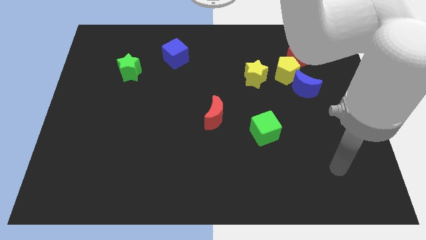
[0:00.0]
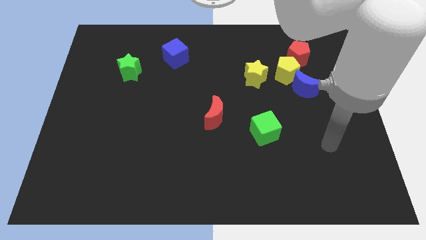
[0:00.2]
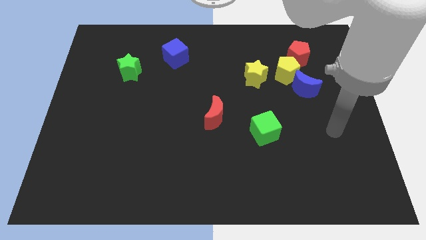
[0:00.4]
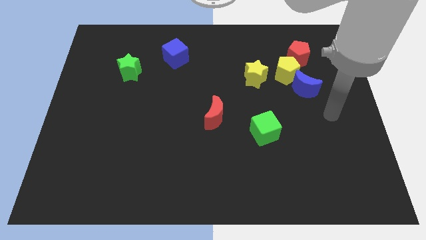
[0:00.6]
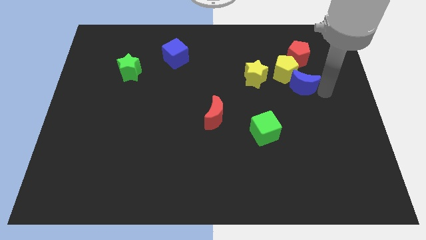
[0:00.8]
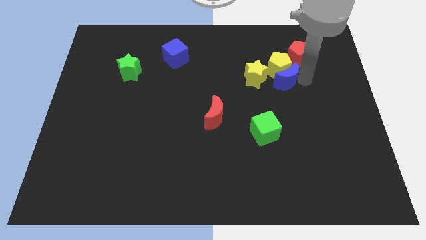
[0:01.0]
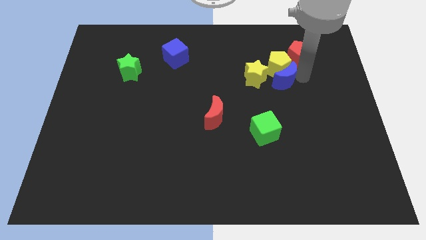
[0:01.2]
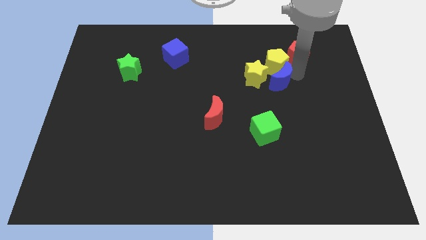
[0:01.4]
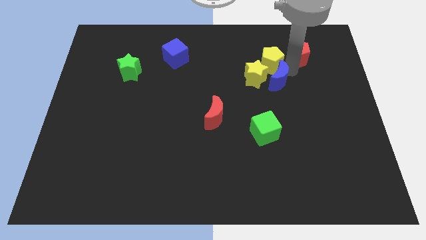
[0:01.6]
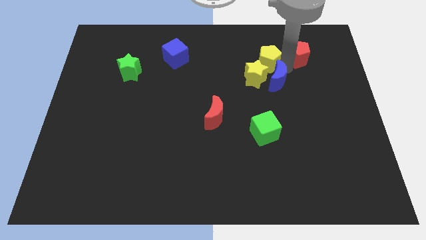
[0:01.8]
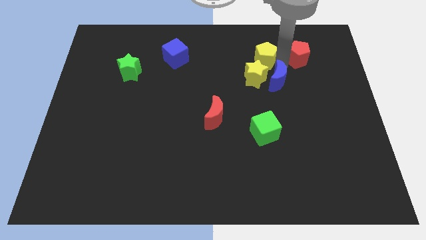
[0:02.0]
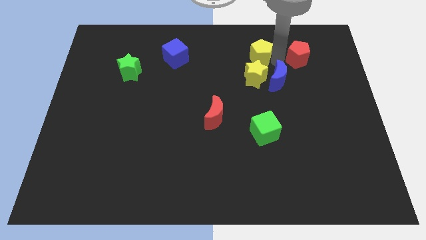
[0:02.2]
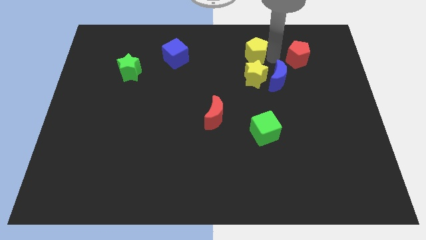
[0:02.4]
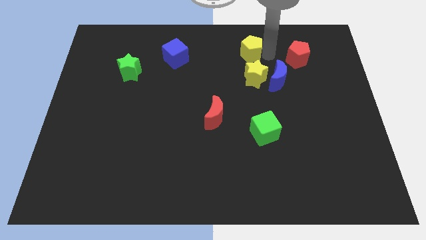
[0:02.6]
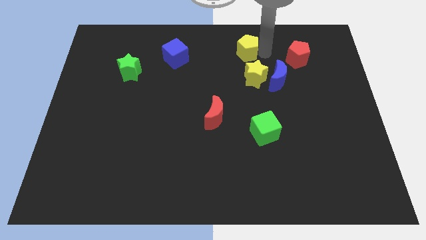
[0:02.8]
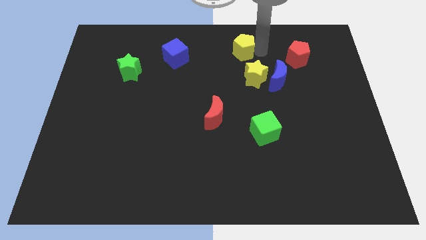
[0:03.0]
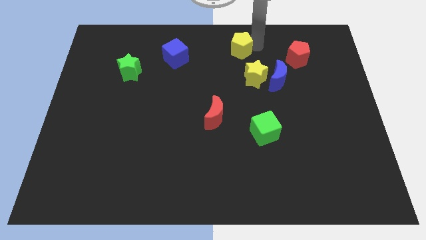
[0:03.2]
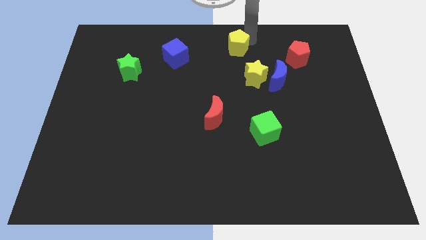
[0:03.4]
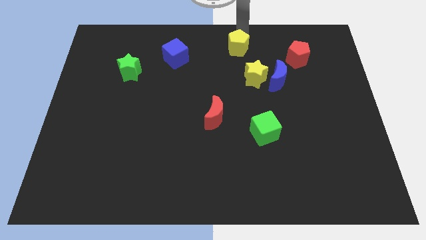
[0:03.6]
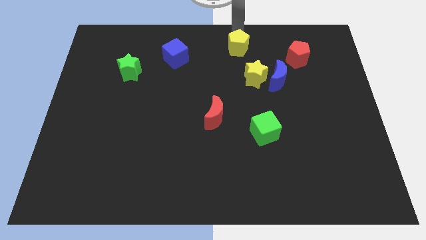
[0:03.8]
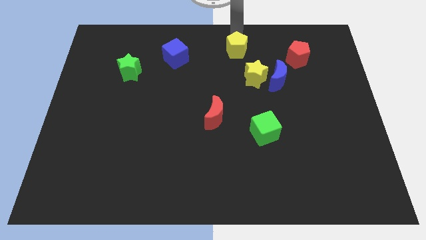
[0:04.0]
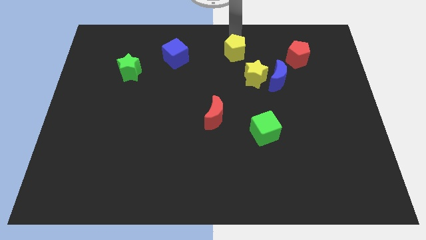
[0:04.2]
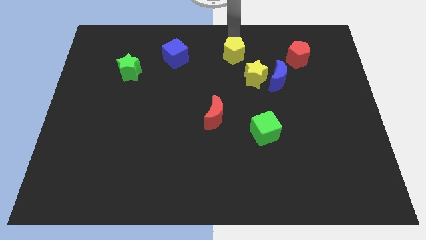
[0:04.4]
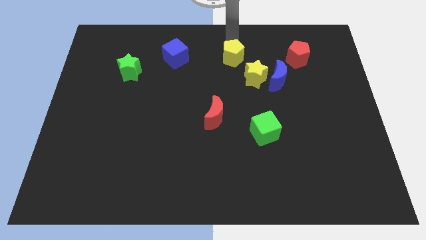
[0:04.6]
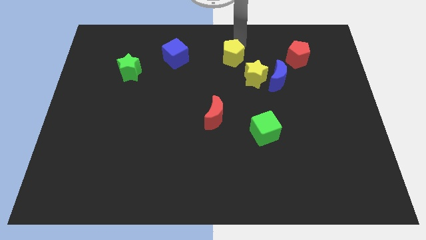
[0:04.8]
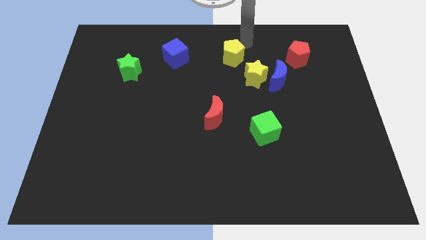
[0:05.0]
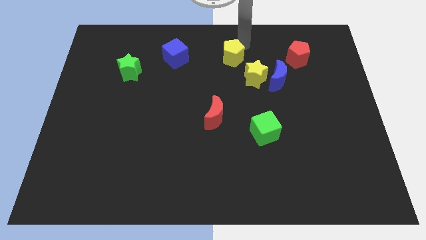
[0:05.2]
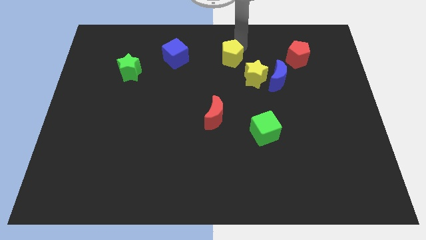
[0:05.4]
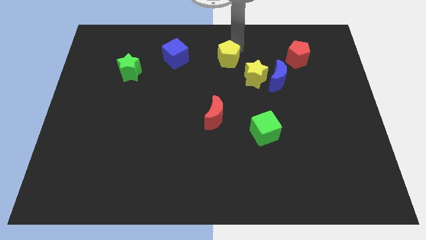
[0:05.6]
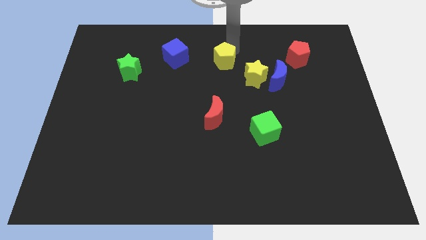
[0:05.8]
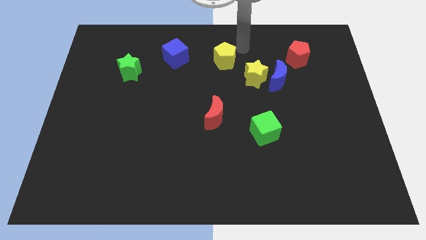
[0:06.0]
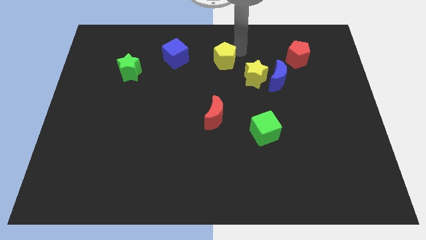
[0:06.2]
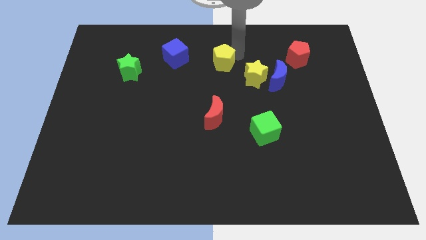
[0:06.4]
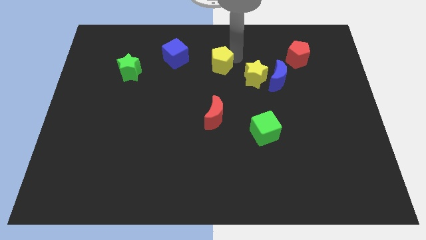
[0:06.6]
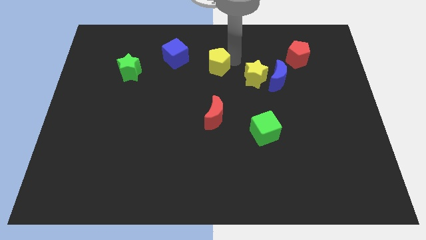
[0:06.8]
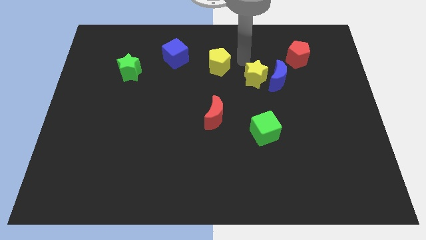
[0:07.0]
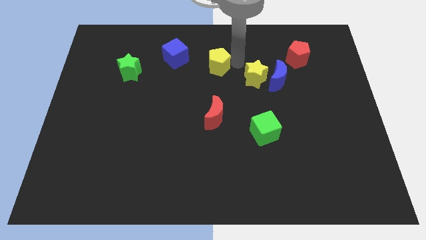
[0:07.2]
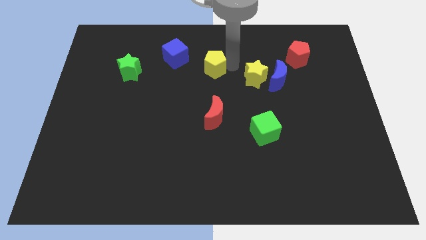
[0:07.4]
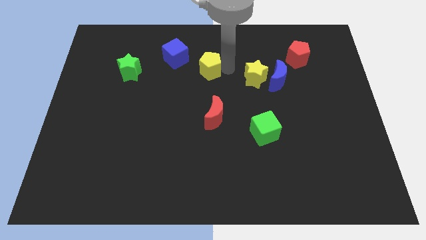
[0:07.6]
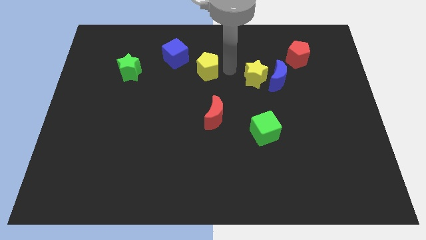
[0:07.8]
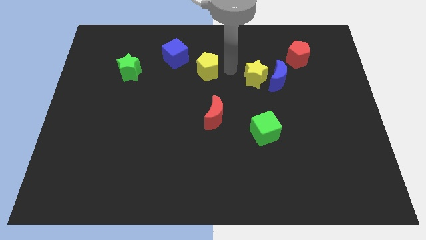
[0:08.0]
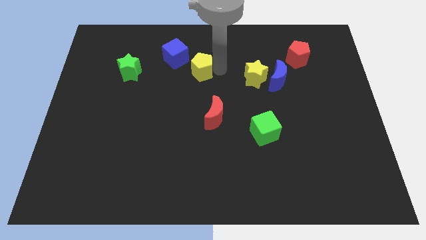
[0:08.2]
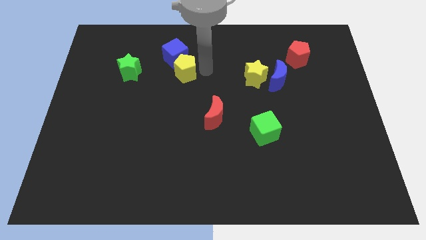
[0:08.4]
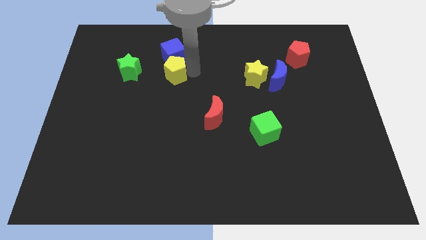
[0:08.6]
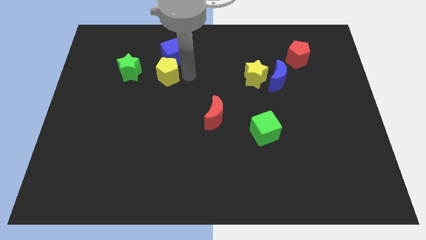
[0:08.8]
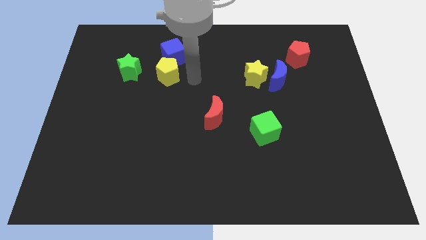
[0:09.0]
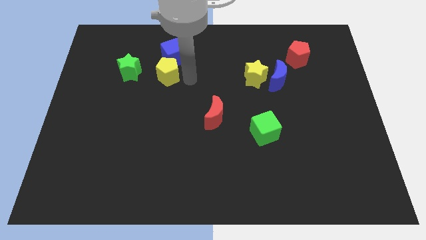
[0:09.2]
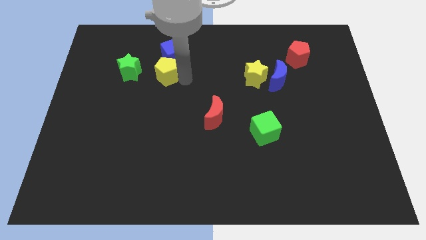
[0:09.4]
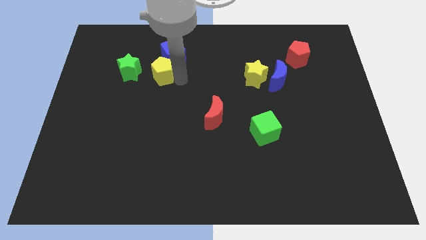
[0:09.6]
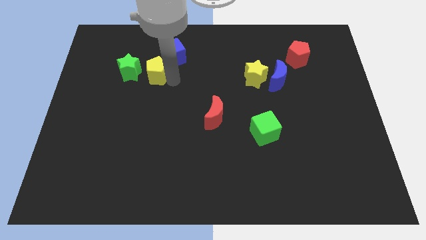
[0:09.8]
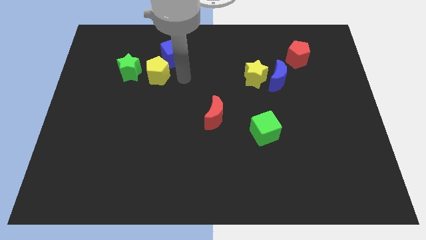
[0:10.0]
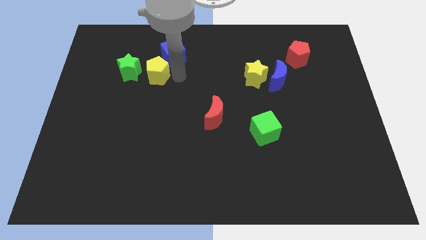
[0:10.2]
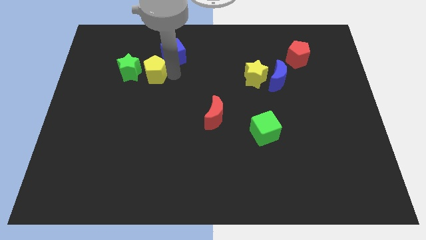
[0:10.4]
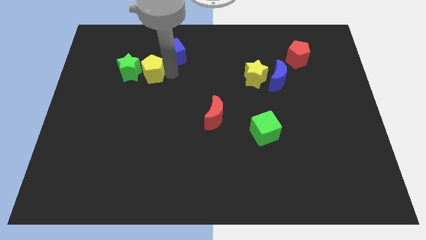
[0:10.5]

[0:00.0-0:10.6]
move the yellow pentagon to the green star

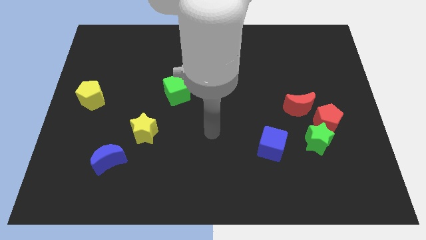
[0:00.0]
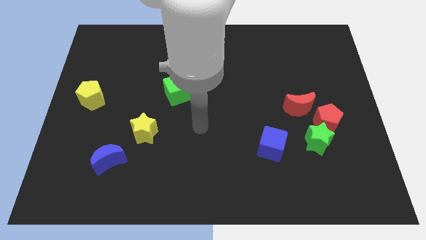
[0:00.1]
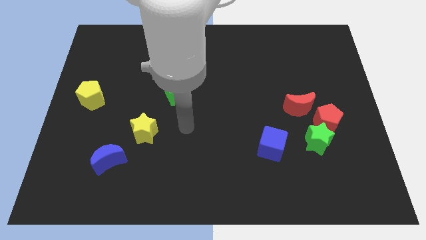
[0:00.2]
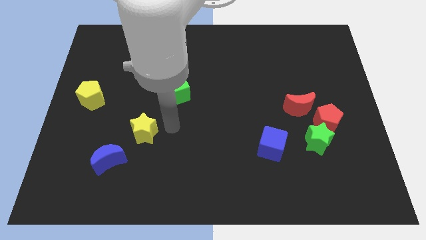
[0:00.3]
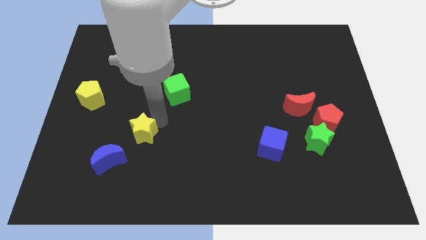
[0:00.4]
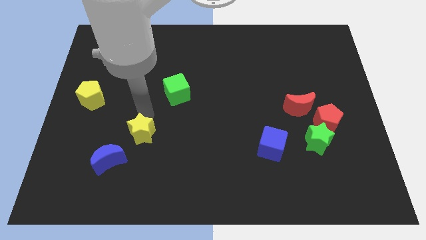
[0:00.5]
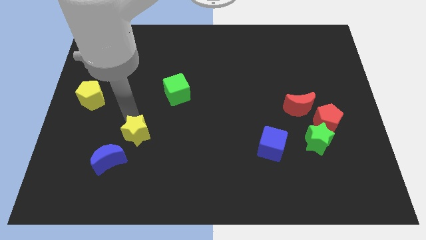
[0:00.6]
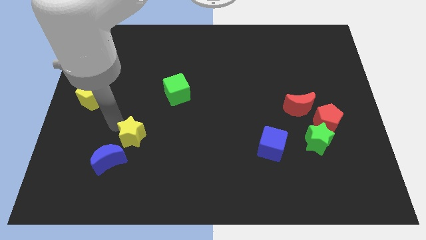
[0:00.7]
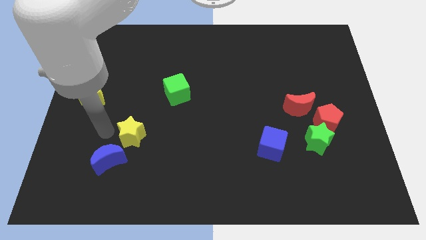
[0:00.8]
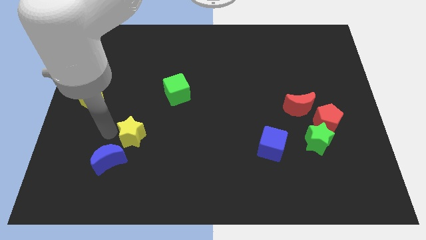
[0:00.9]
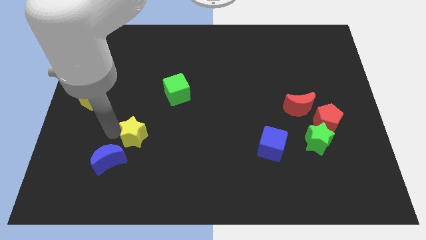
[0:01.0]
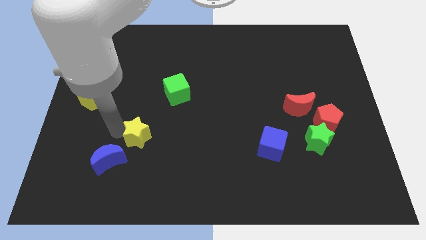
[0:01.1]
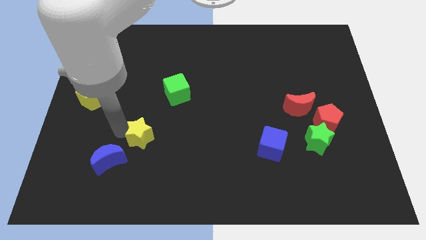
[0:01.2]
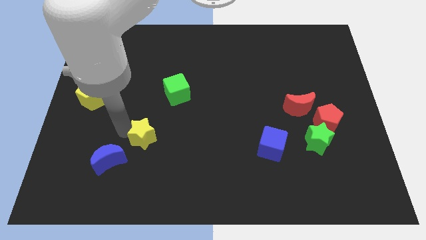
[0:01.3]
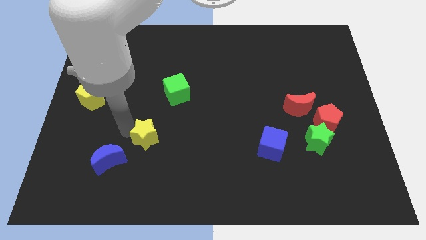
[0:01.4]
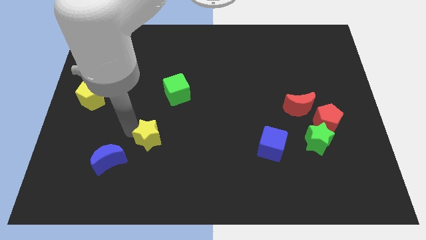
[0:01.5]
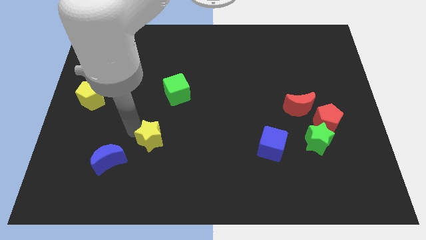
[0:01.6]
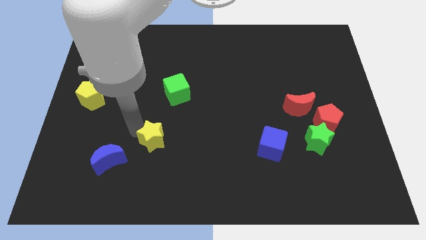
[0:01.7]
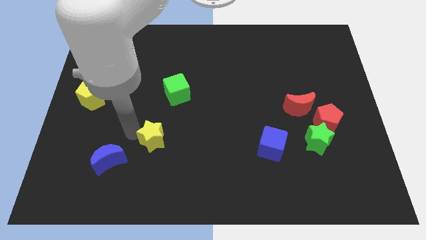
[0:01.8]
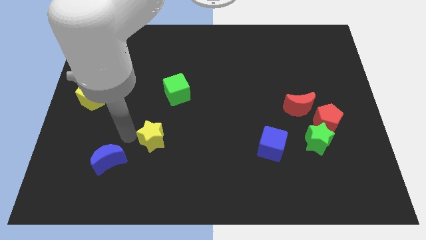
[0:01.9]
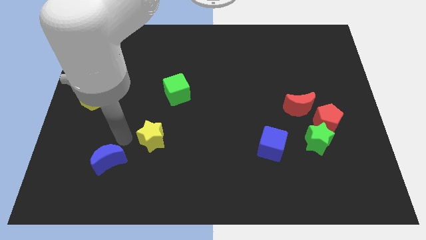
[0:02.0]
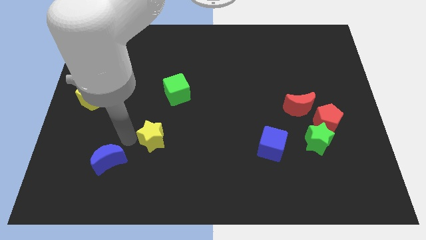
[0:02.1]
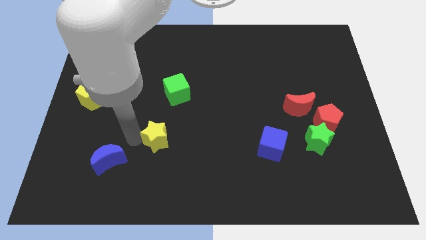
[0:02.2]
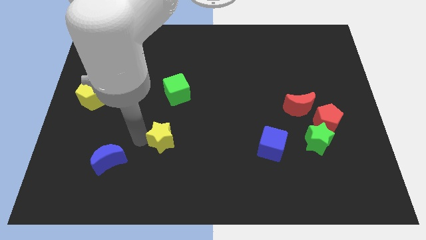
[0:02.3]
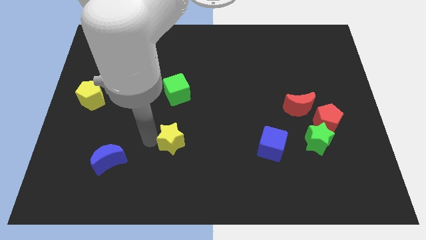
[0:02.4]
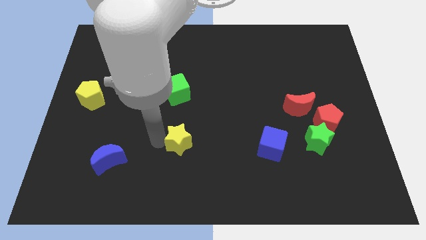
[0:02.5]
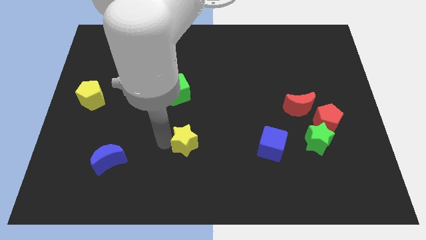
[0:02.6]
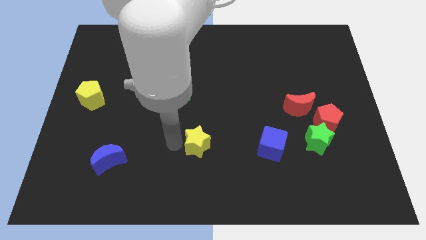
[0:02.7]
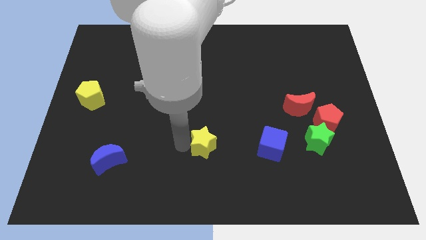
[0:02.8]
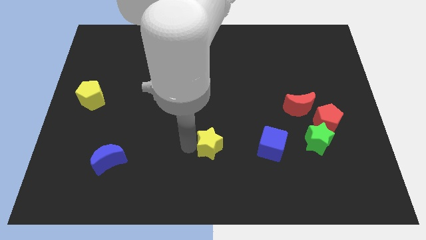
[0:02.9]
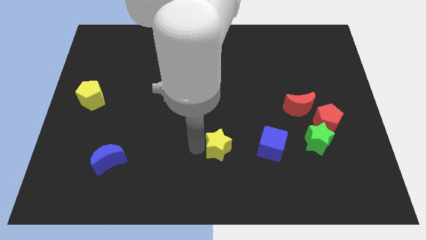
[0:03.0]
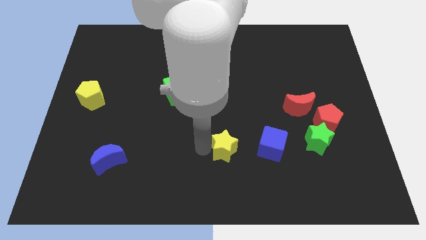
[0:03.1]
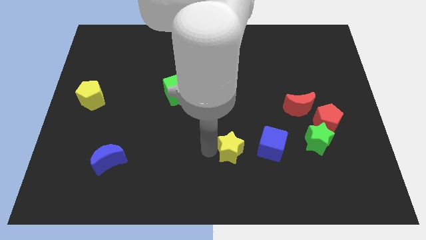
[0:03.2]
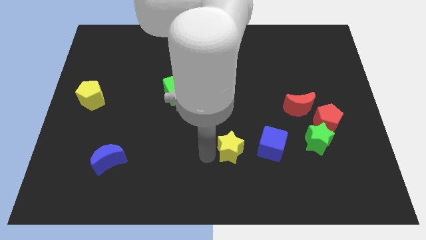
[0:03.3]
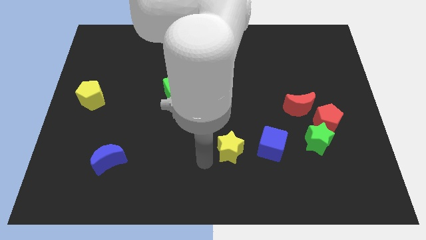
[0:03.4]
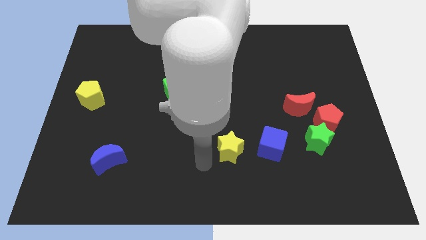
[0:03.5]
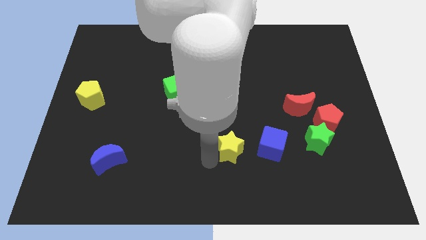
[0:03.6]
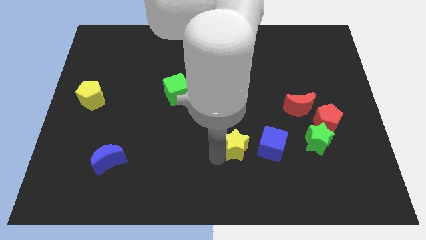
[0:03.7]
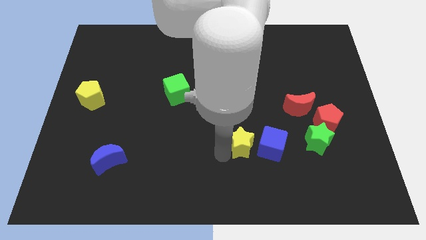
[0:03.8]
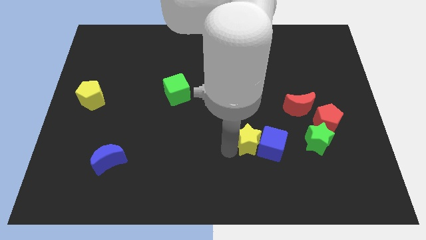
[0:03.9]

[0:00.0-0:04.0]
slide the yellow star next to the blue cube
